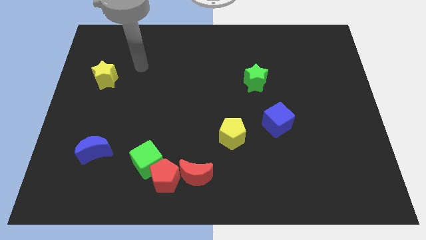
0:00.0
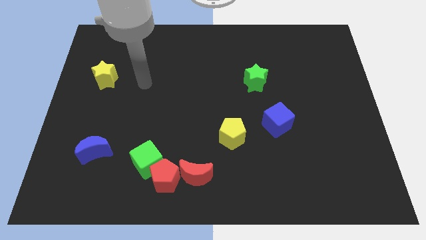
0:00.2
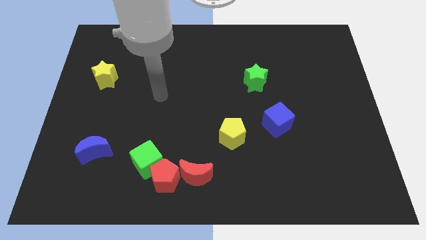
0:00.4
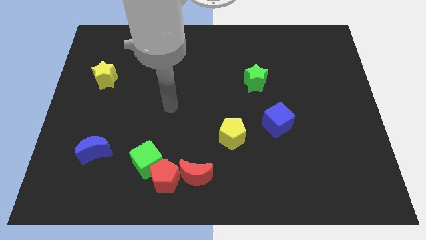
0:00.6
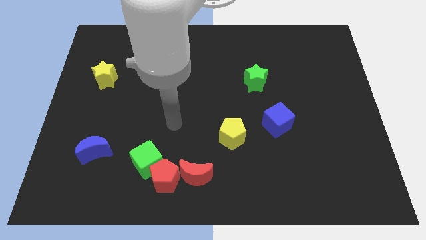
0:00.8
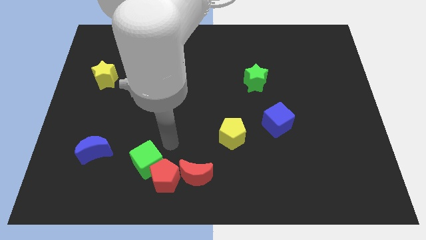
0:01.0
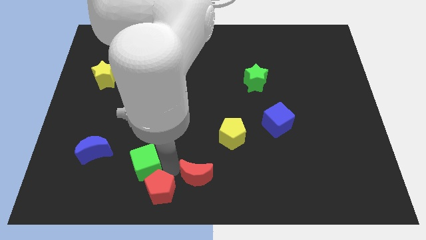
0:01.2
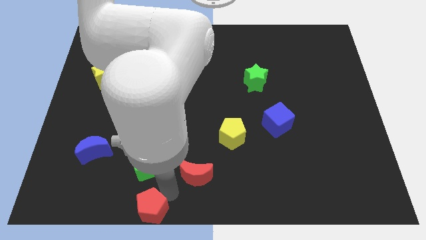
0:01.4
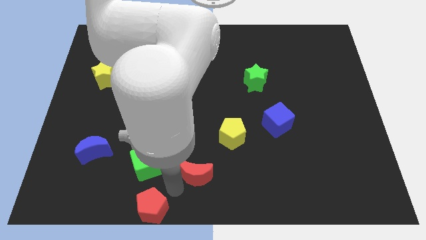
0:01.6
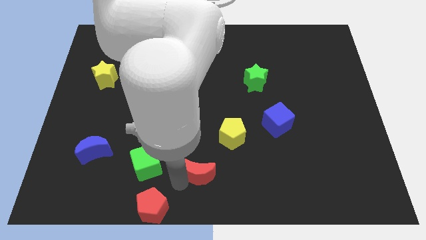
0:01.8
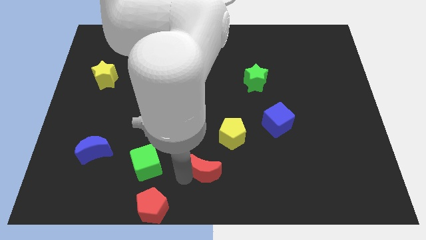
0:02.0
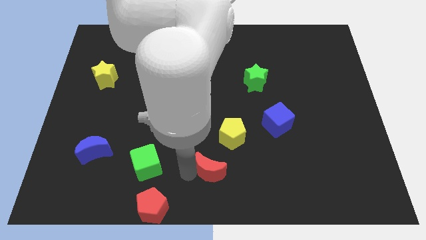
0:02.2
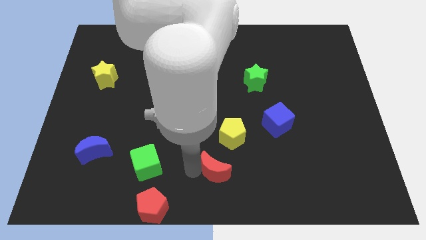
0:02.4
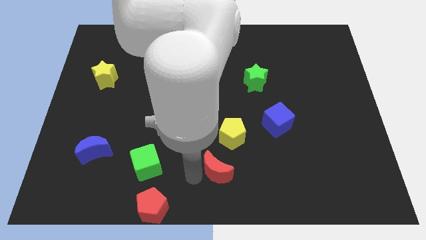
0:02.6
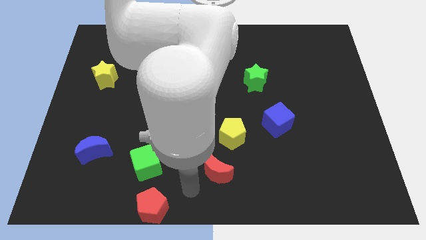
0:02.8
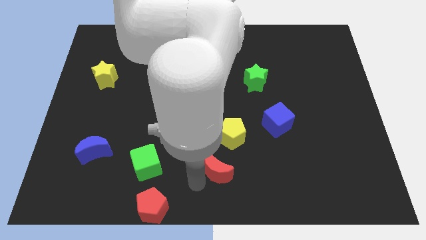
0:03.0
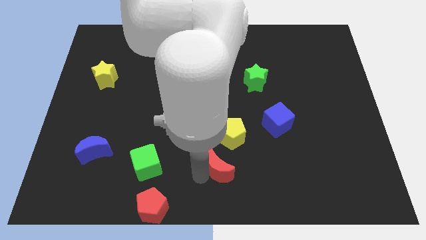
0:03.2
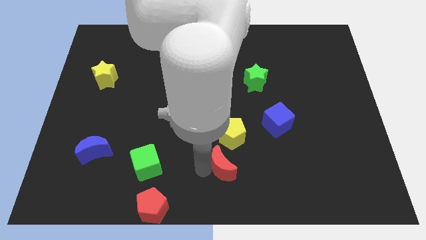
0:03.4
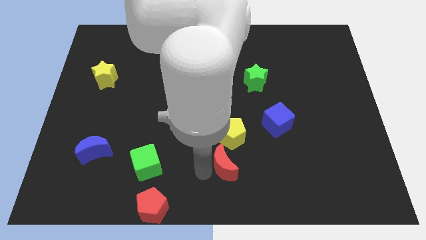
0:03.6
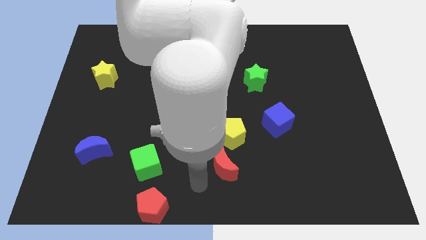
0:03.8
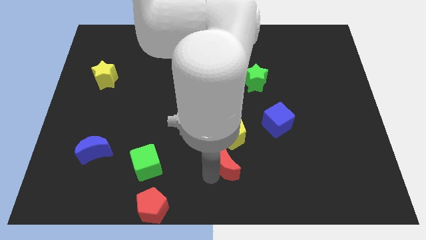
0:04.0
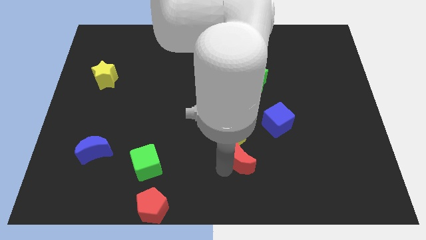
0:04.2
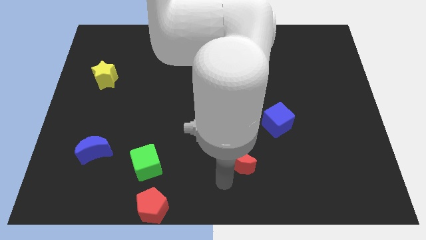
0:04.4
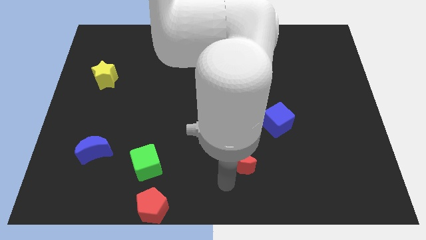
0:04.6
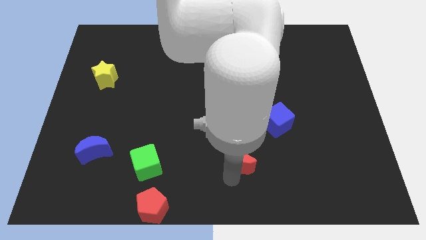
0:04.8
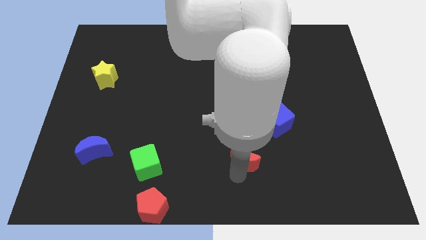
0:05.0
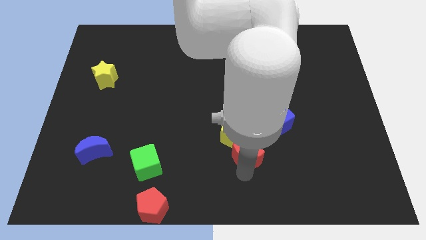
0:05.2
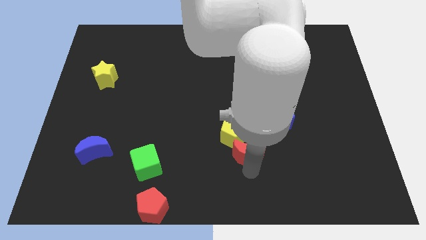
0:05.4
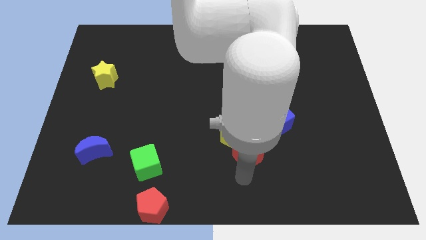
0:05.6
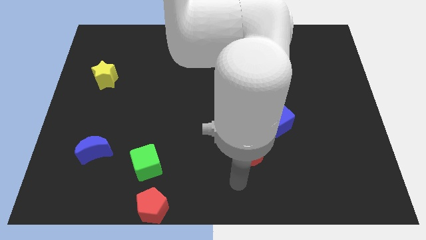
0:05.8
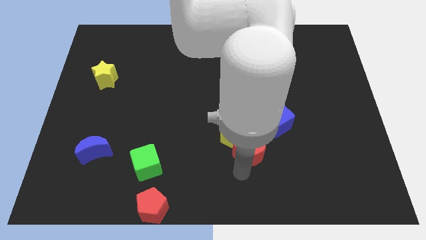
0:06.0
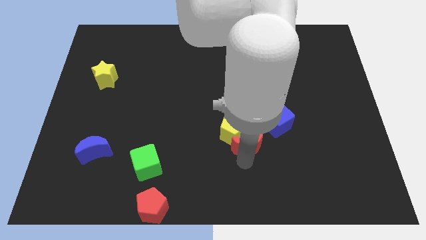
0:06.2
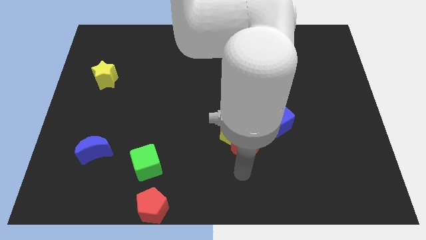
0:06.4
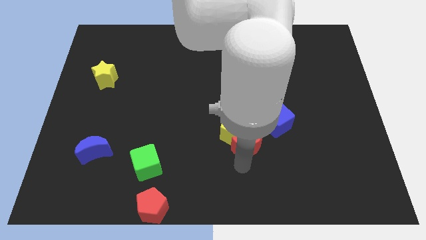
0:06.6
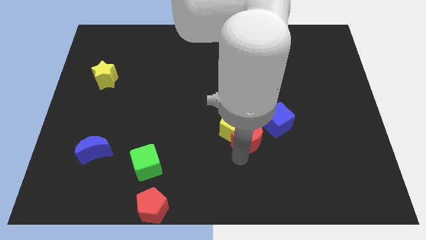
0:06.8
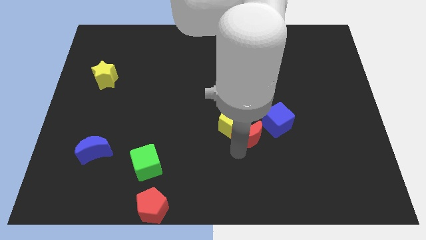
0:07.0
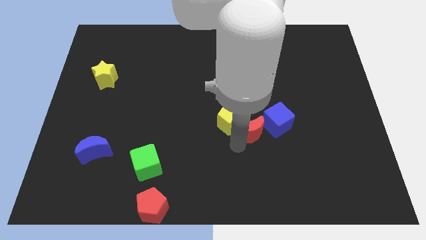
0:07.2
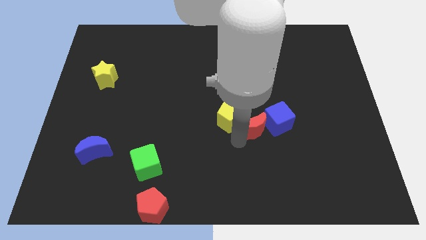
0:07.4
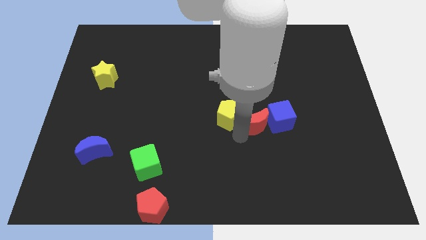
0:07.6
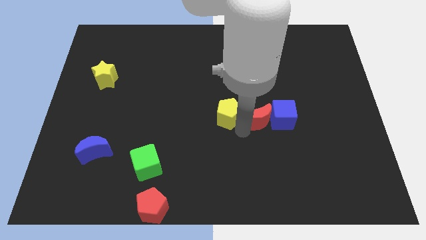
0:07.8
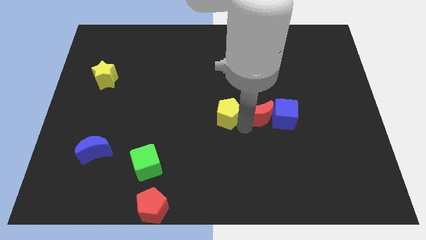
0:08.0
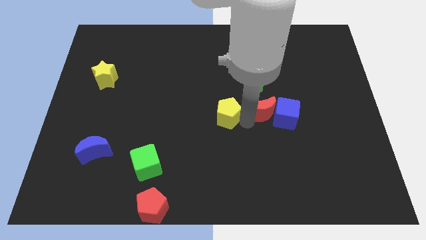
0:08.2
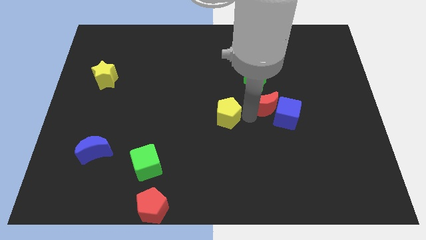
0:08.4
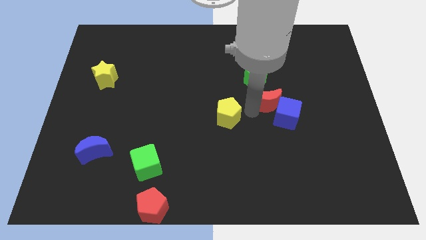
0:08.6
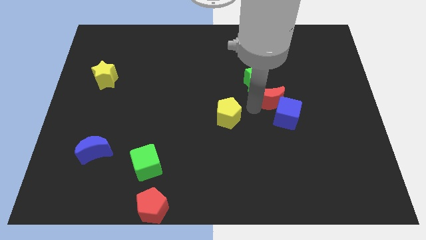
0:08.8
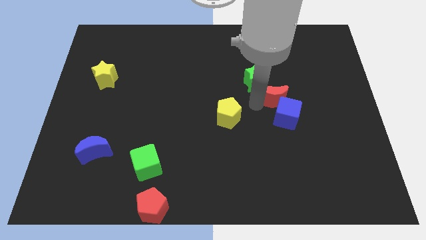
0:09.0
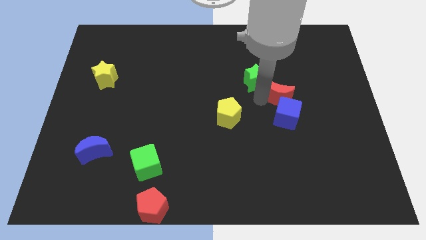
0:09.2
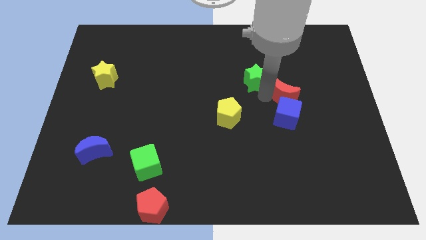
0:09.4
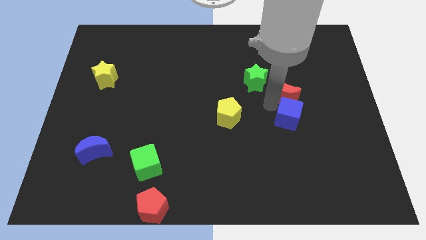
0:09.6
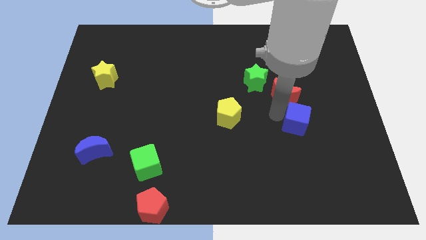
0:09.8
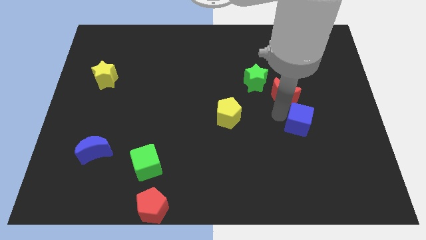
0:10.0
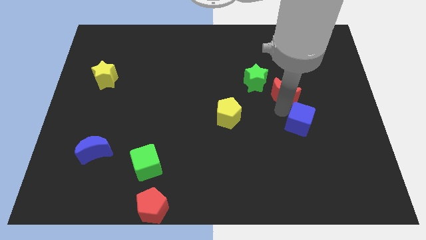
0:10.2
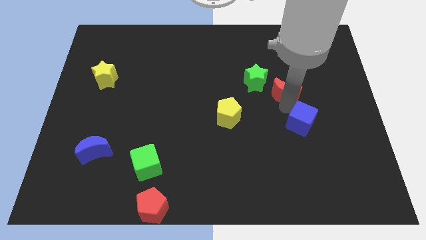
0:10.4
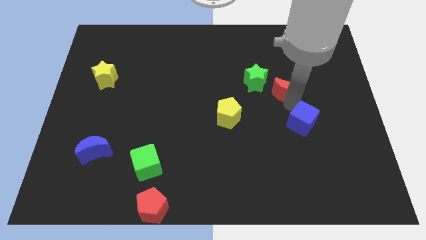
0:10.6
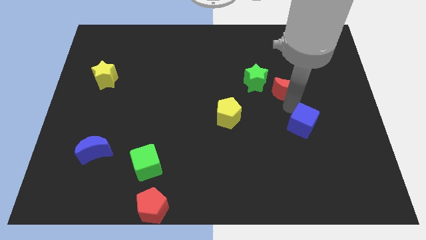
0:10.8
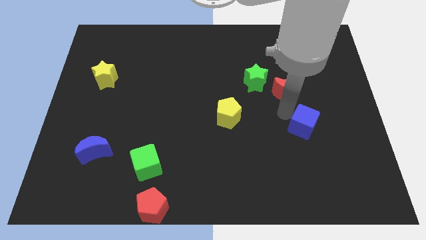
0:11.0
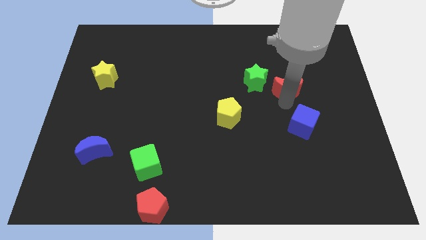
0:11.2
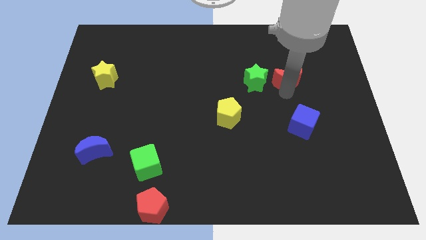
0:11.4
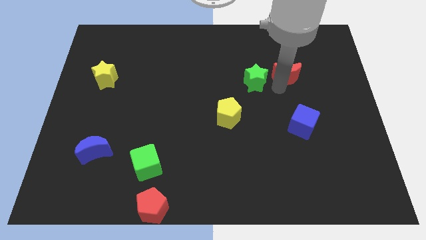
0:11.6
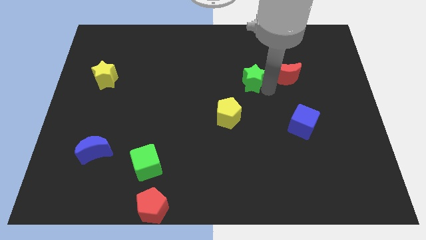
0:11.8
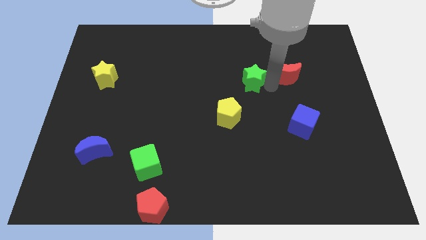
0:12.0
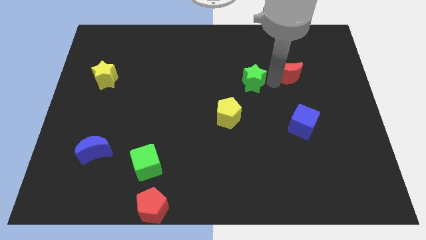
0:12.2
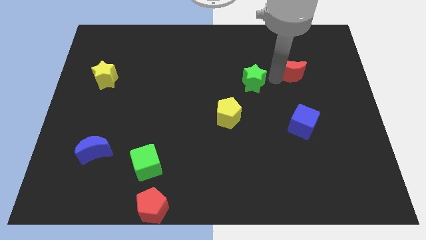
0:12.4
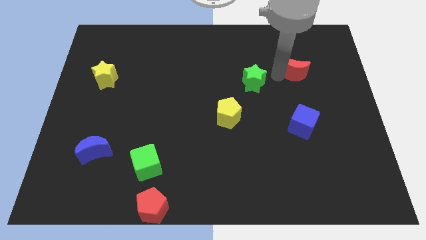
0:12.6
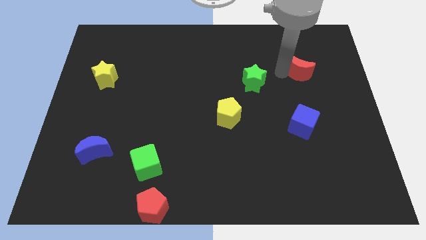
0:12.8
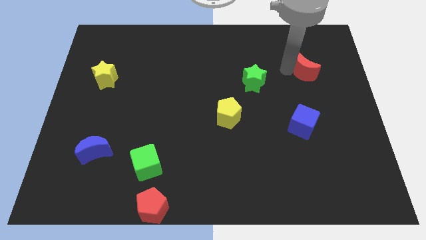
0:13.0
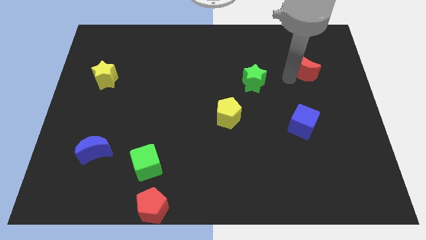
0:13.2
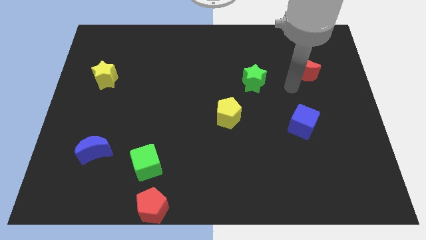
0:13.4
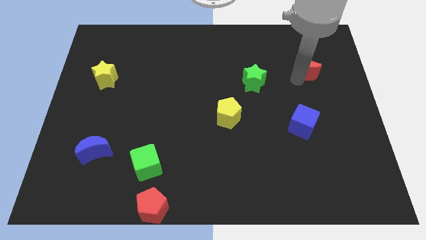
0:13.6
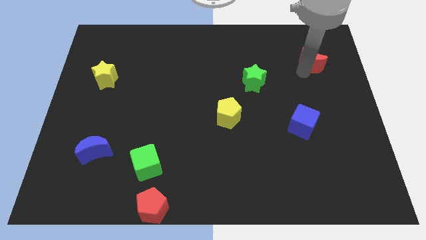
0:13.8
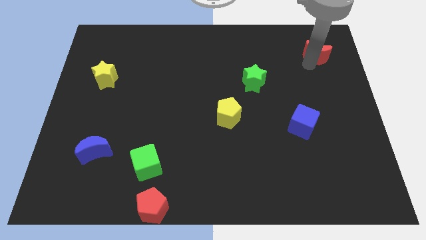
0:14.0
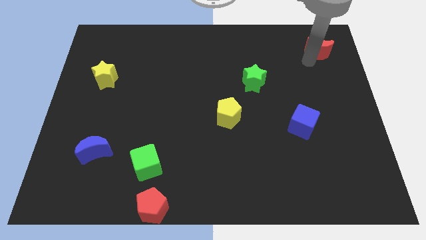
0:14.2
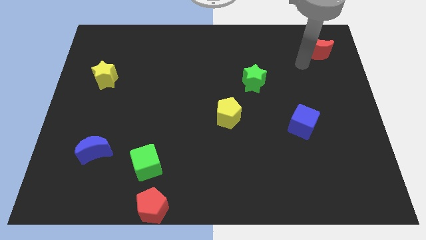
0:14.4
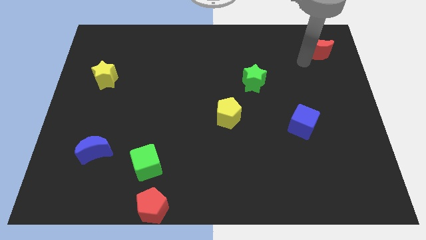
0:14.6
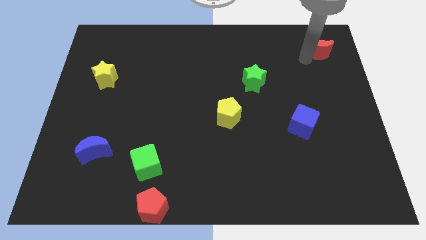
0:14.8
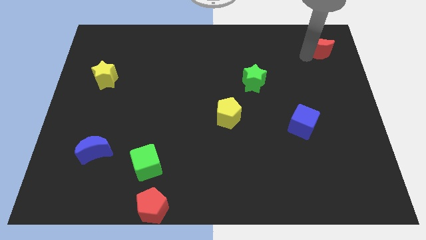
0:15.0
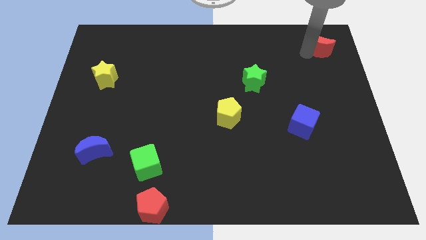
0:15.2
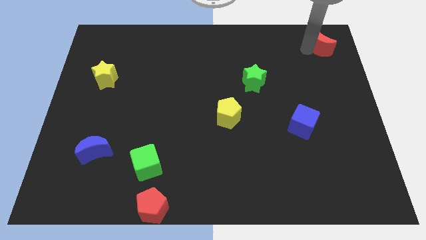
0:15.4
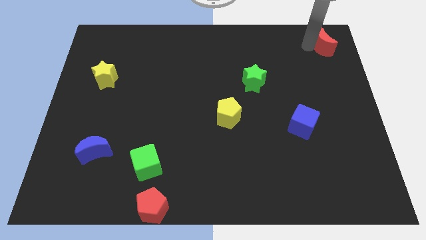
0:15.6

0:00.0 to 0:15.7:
put the red moon to the top right corner
